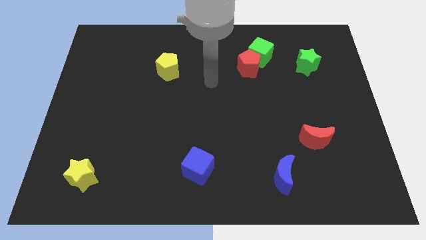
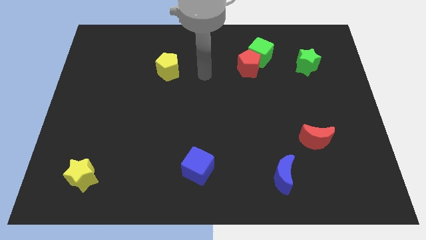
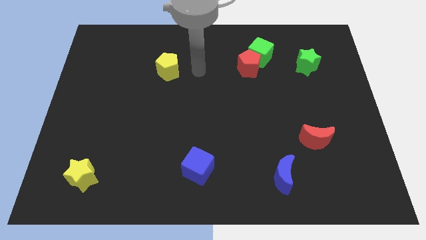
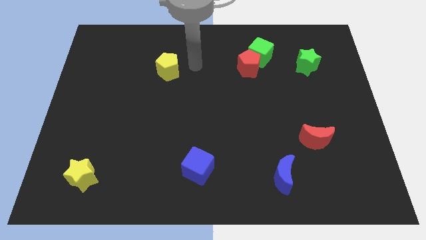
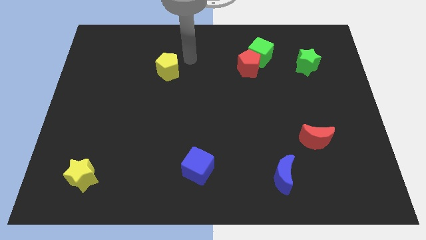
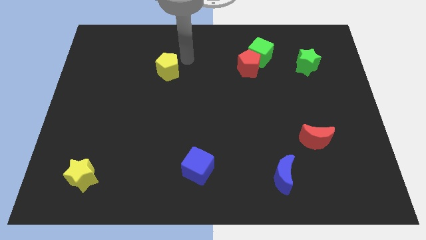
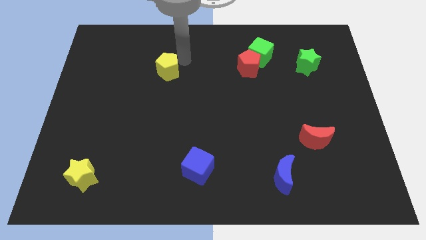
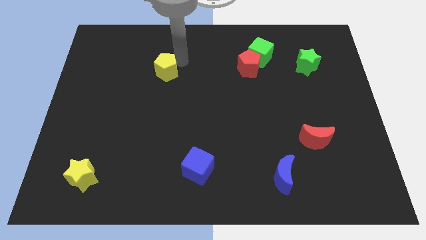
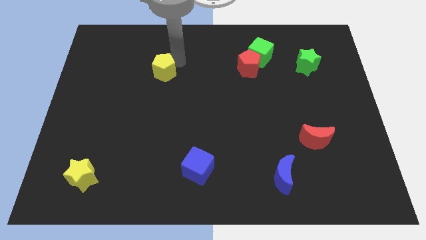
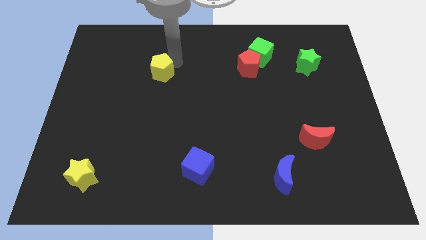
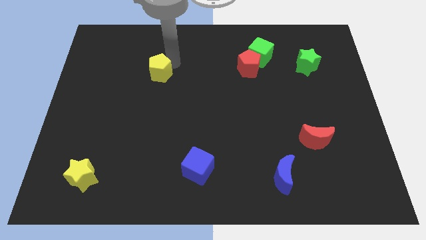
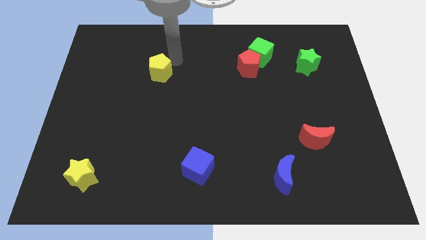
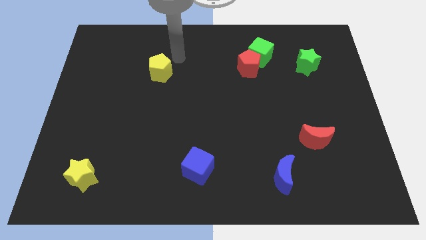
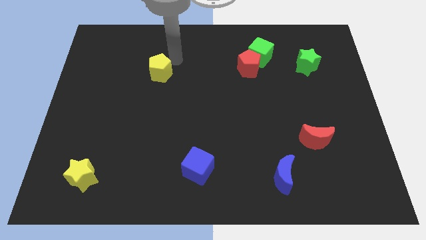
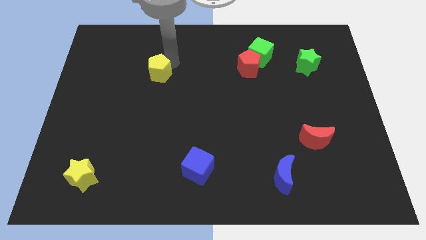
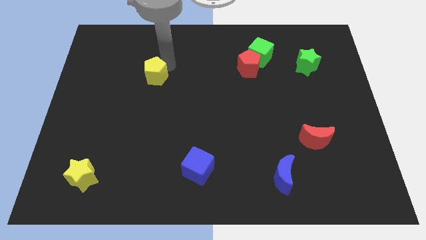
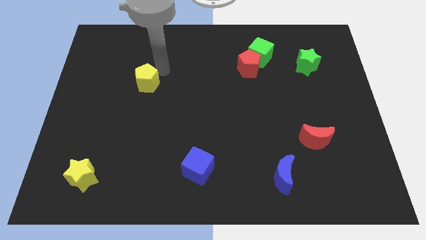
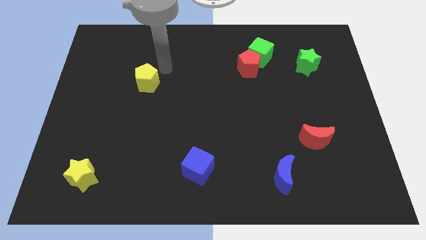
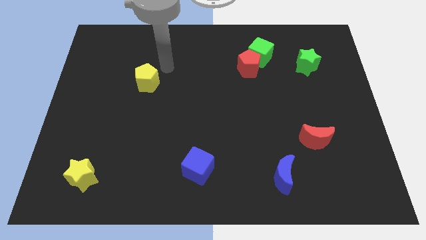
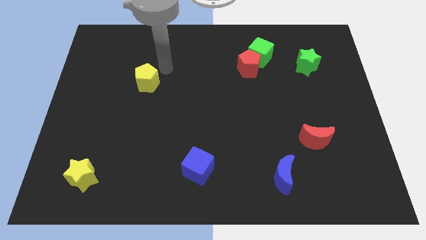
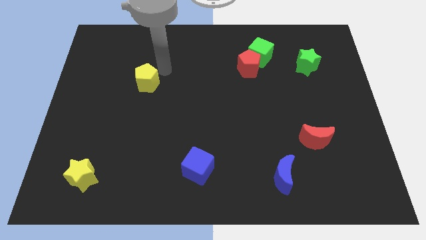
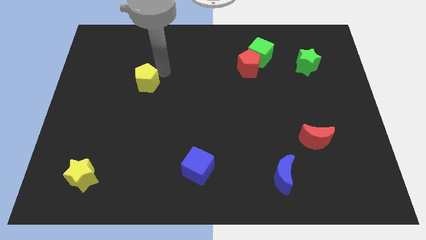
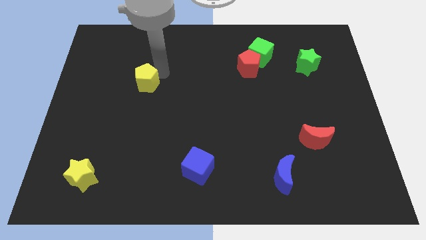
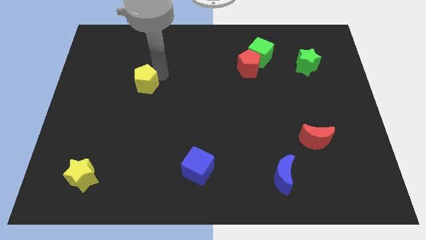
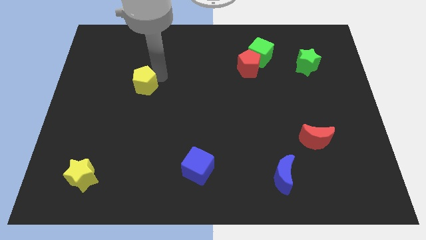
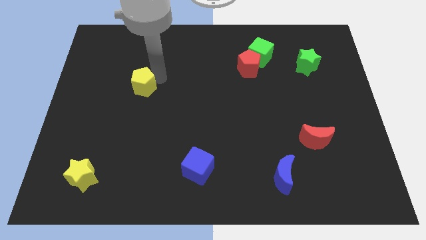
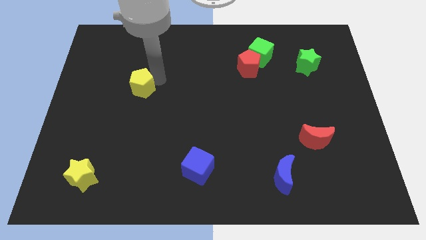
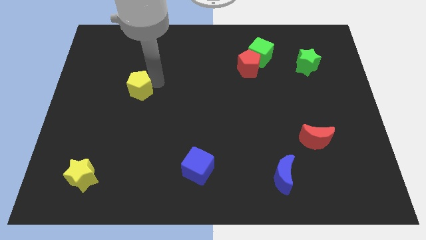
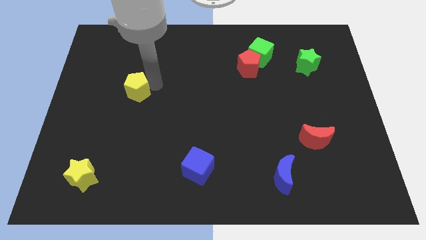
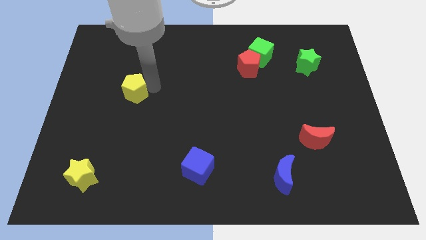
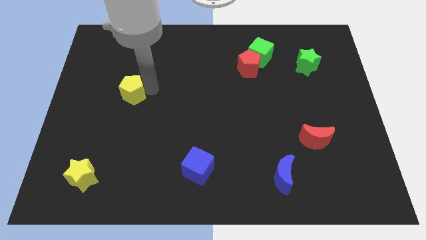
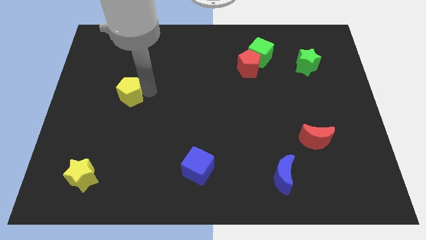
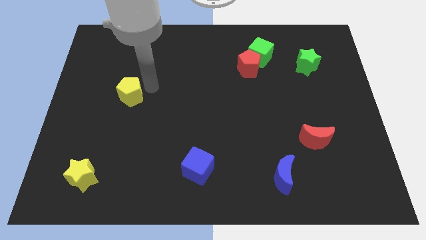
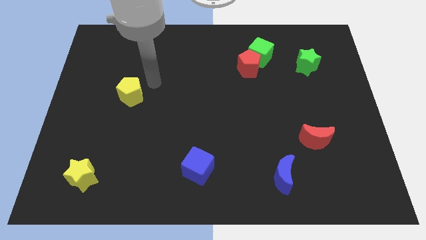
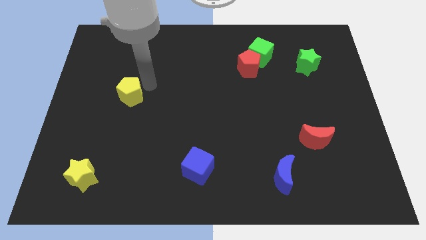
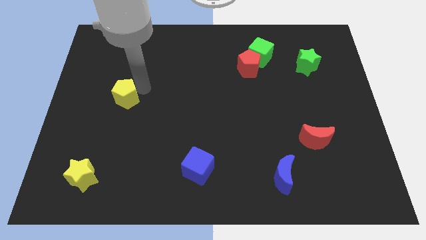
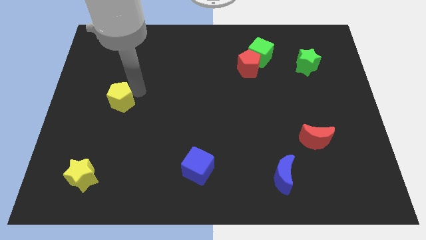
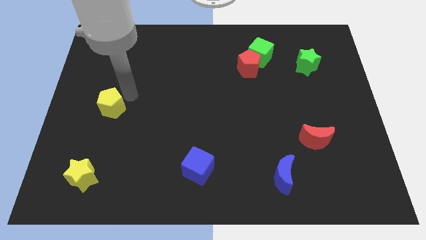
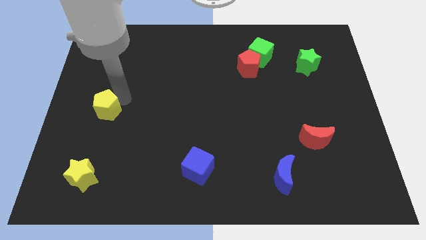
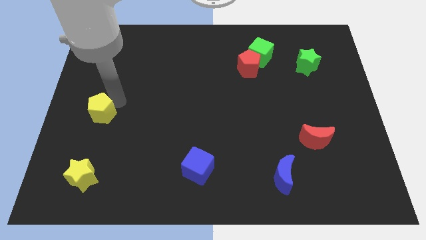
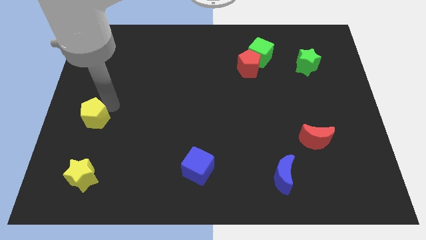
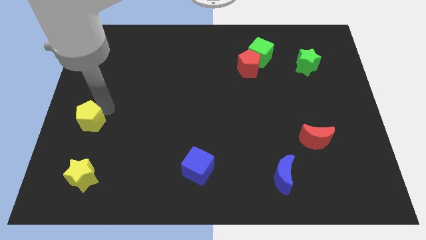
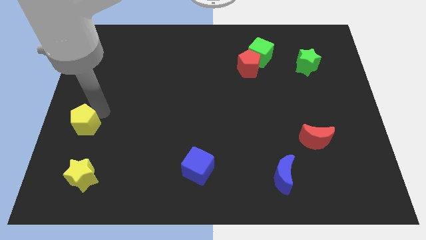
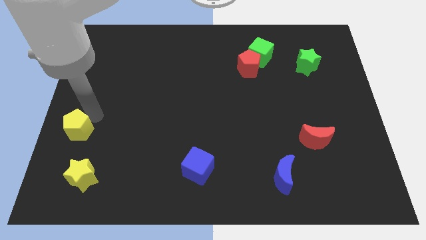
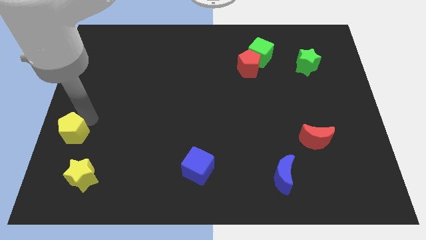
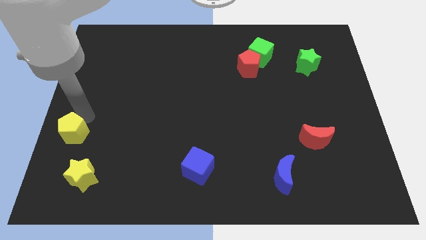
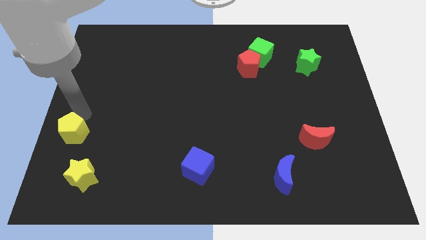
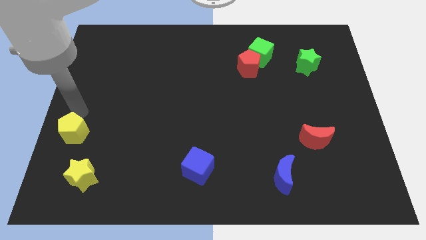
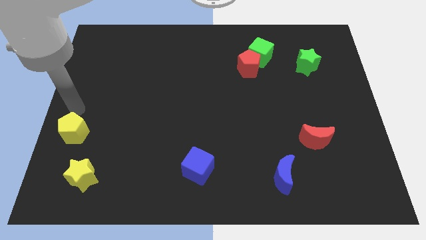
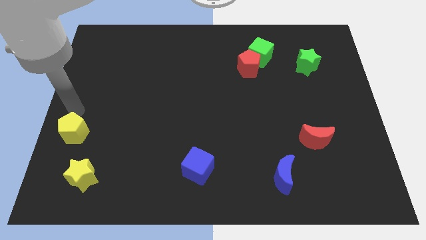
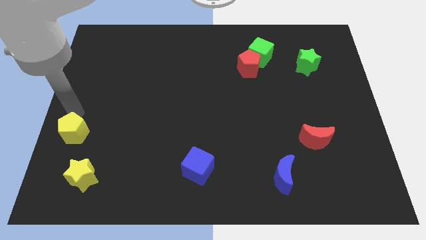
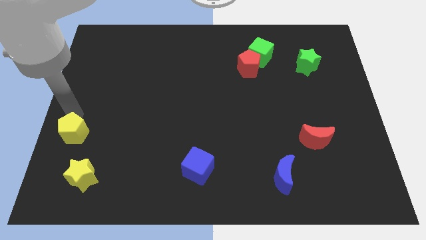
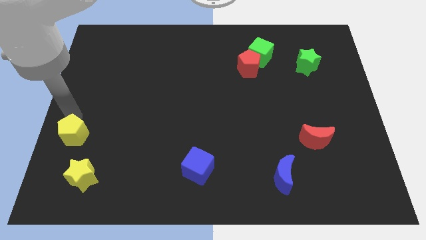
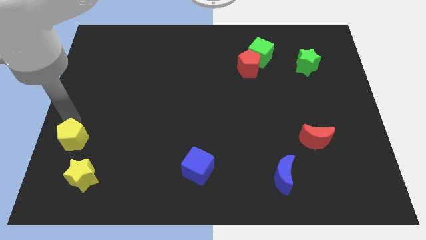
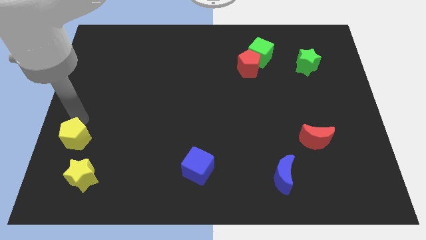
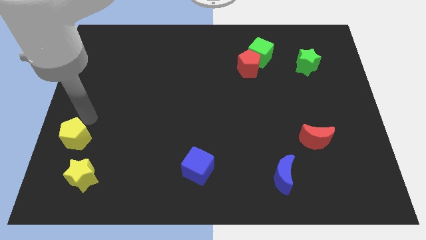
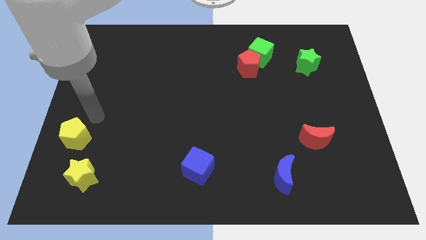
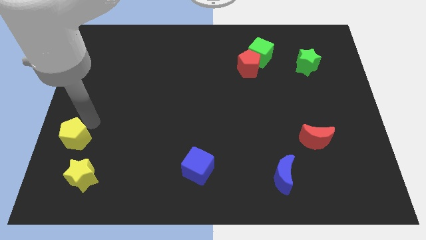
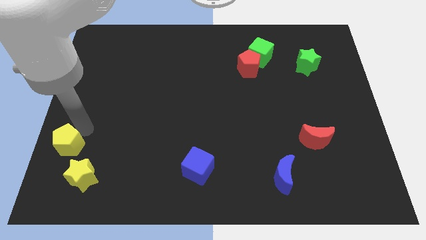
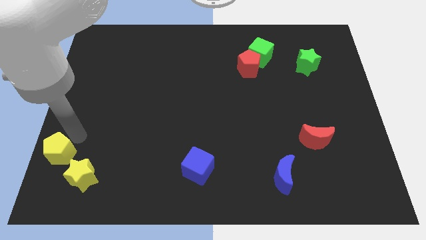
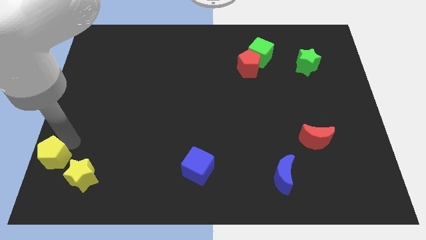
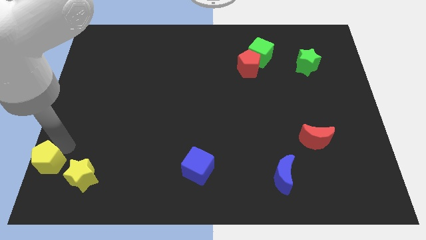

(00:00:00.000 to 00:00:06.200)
put the yellow pentagon to the bottom left corner
